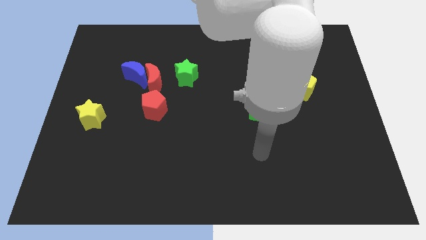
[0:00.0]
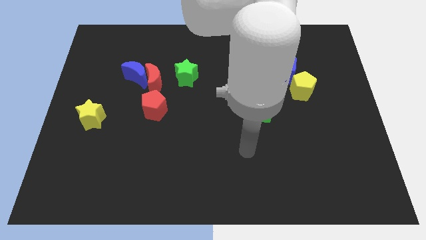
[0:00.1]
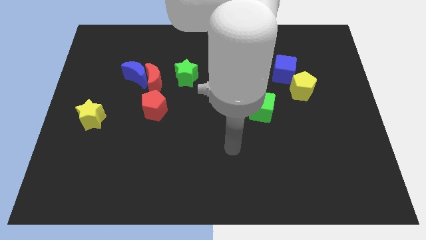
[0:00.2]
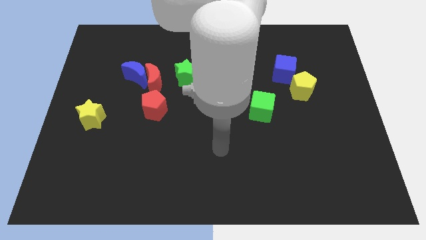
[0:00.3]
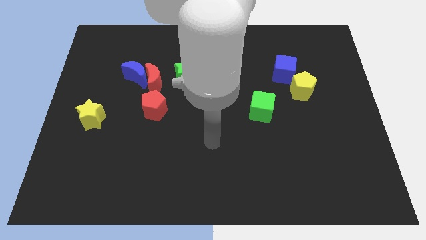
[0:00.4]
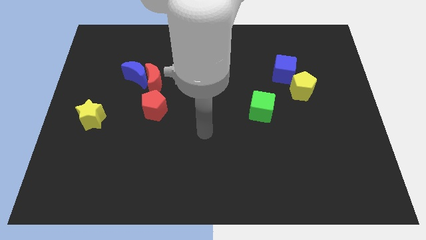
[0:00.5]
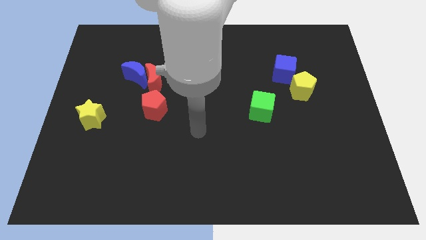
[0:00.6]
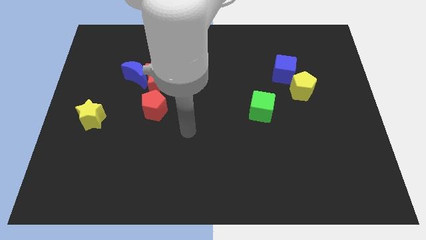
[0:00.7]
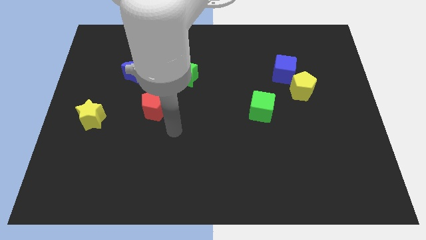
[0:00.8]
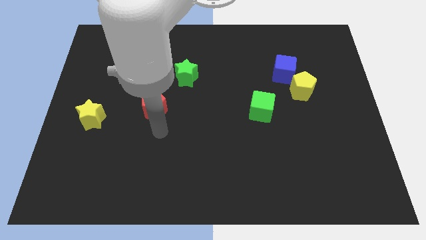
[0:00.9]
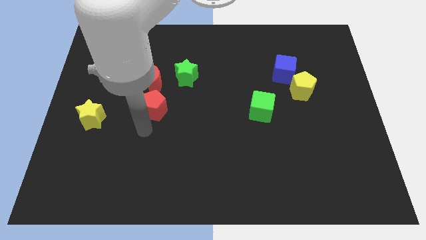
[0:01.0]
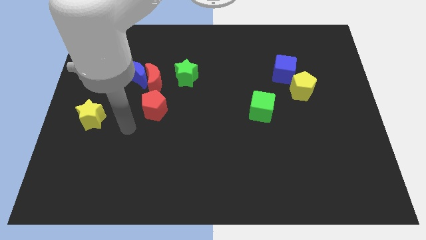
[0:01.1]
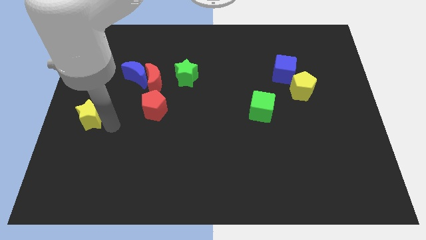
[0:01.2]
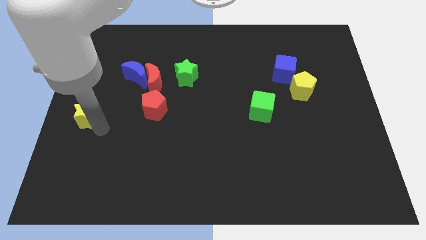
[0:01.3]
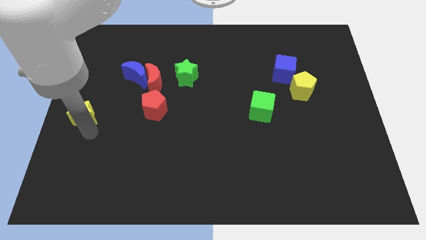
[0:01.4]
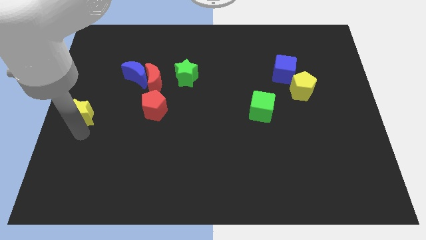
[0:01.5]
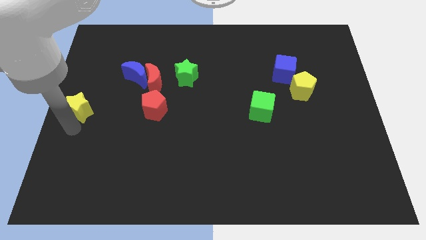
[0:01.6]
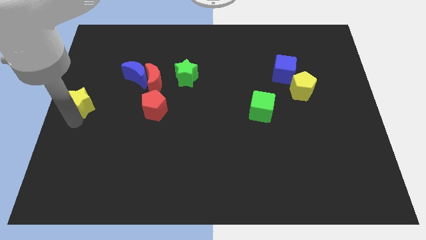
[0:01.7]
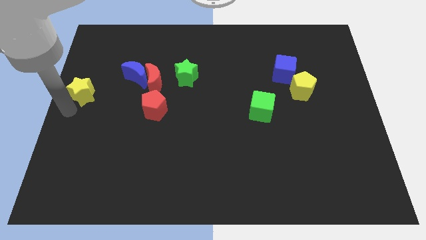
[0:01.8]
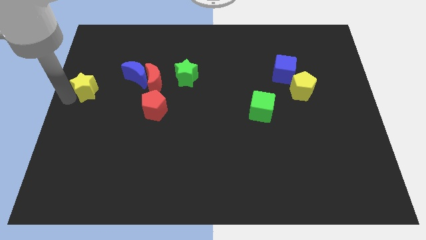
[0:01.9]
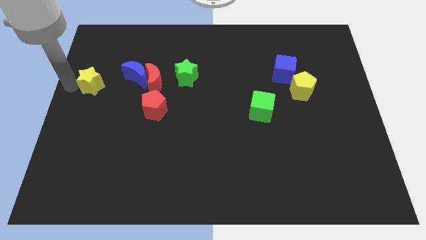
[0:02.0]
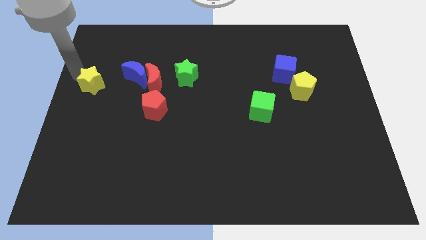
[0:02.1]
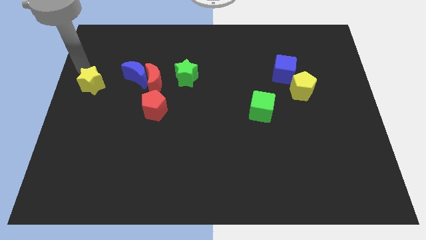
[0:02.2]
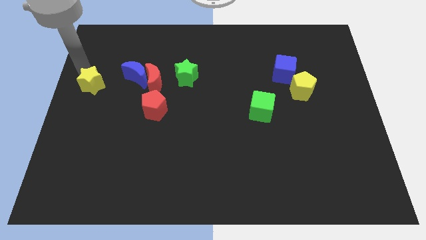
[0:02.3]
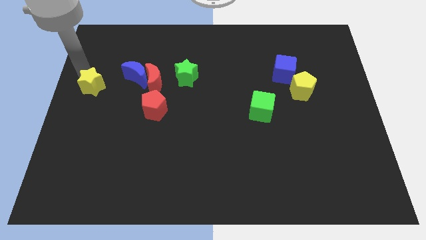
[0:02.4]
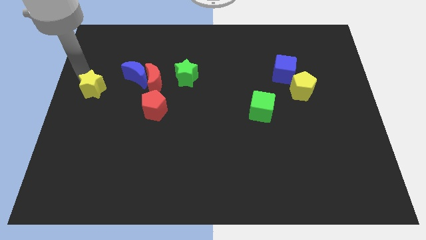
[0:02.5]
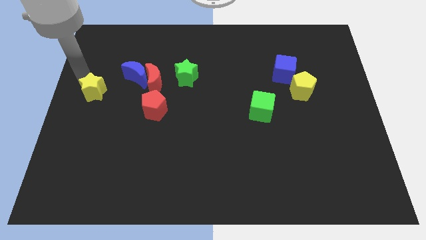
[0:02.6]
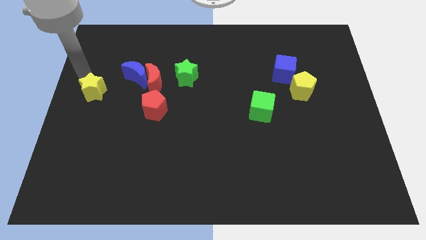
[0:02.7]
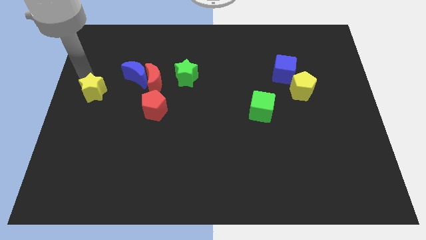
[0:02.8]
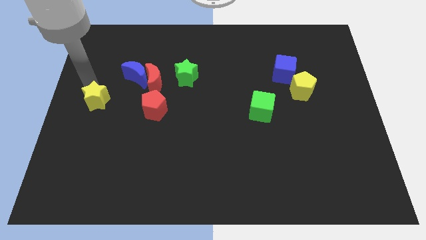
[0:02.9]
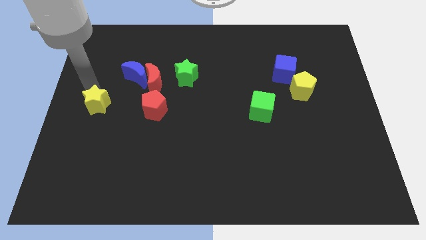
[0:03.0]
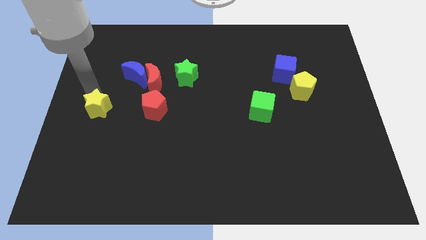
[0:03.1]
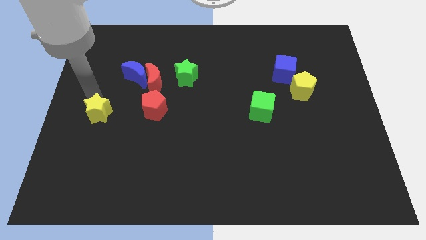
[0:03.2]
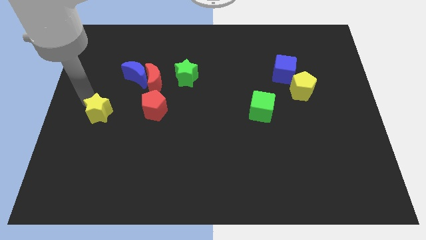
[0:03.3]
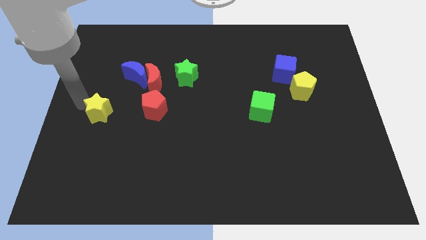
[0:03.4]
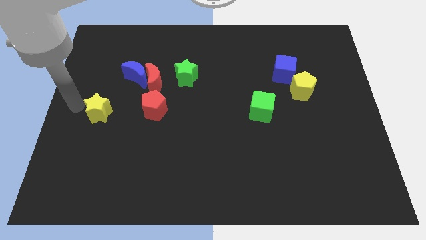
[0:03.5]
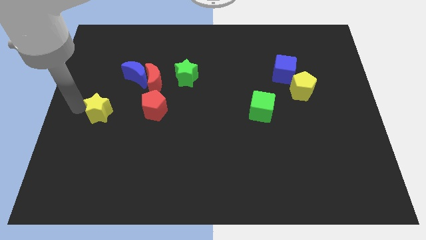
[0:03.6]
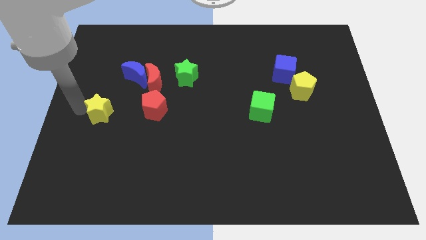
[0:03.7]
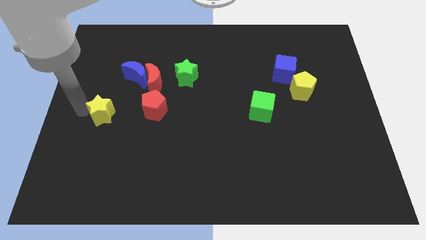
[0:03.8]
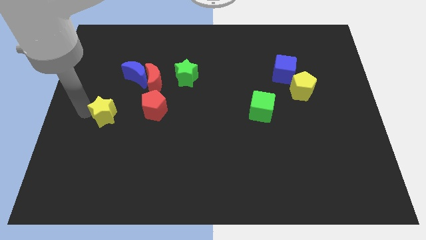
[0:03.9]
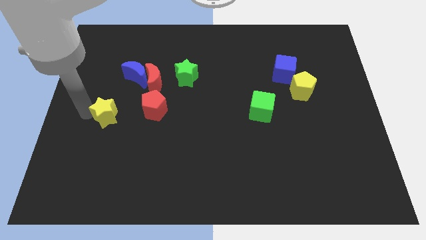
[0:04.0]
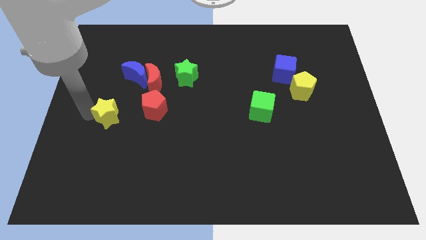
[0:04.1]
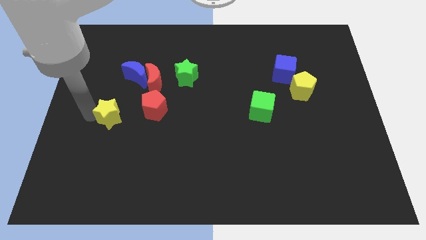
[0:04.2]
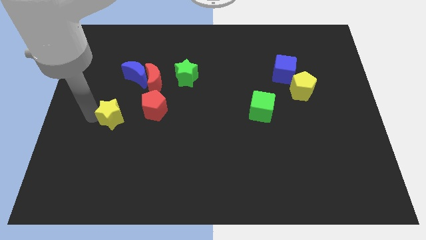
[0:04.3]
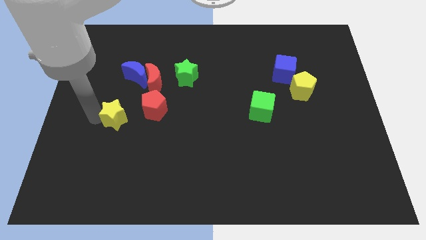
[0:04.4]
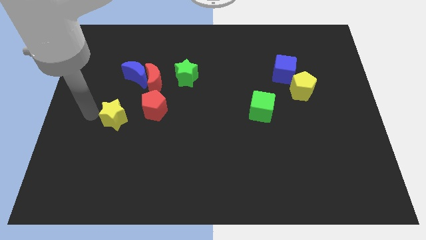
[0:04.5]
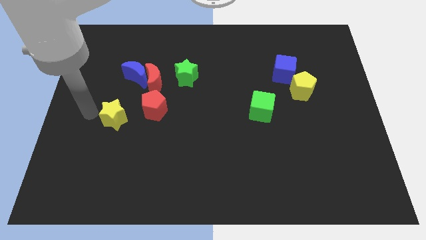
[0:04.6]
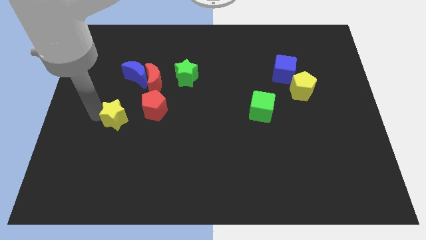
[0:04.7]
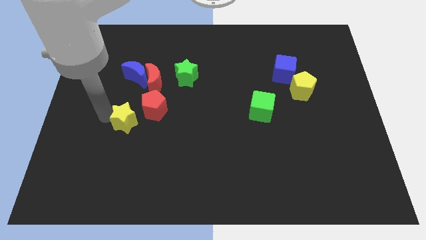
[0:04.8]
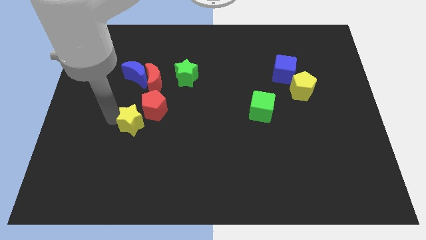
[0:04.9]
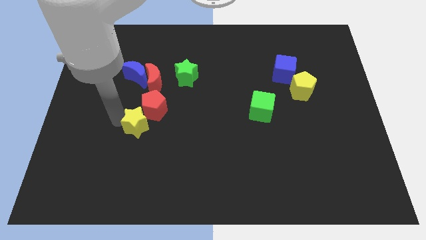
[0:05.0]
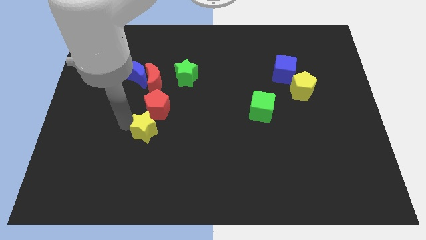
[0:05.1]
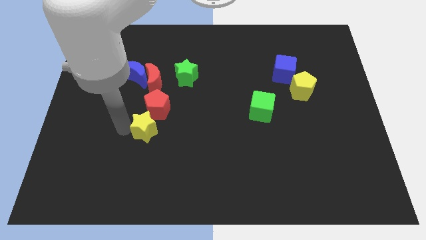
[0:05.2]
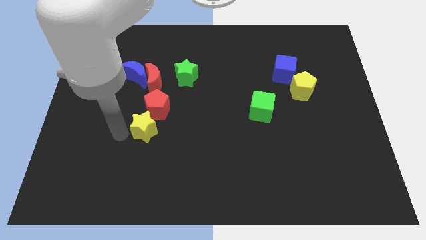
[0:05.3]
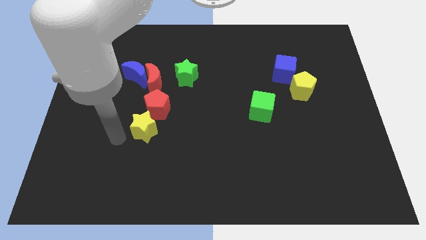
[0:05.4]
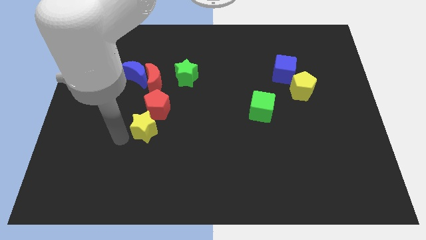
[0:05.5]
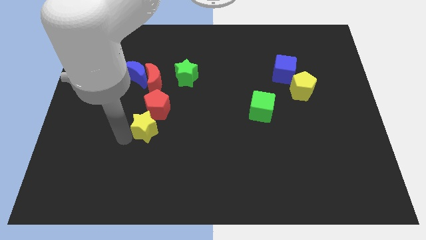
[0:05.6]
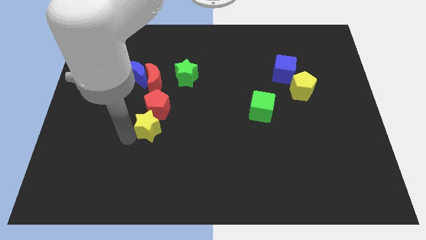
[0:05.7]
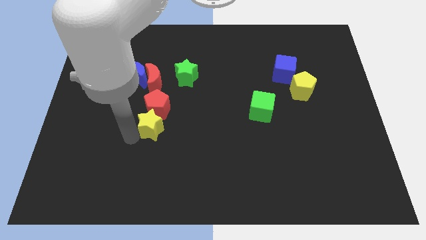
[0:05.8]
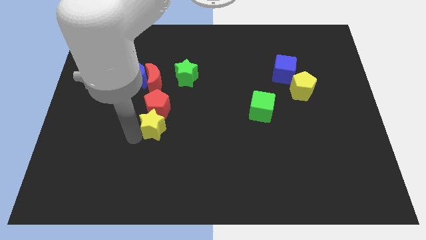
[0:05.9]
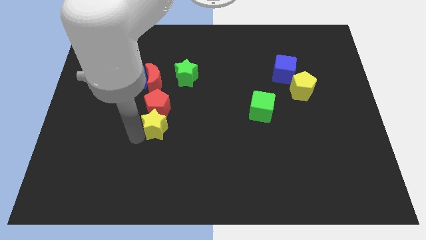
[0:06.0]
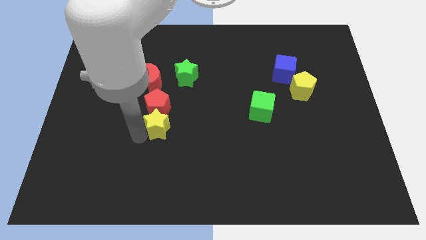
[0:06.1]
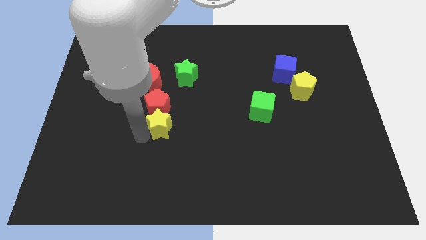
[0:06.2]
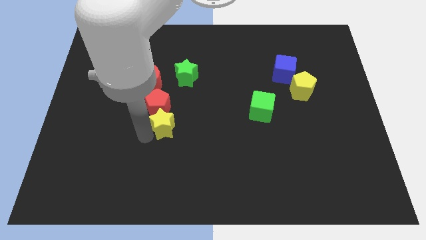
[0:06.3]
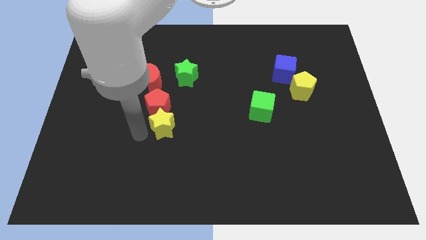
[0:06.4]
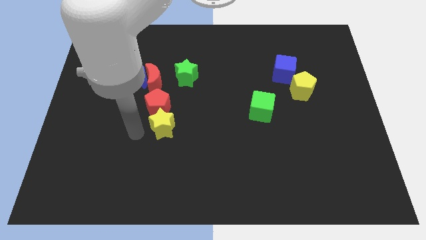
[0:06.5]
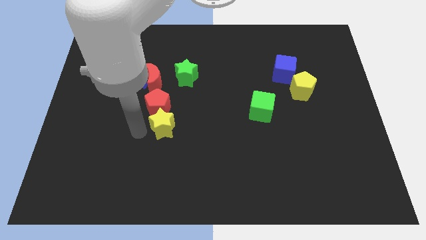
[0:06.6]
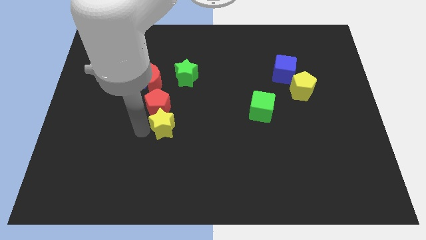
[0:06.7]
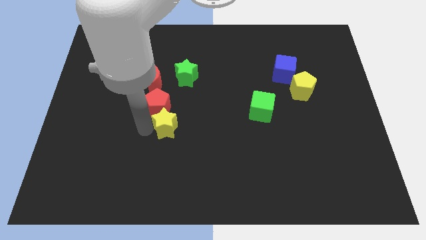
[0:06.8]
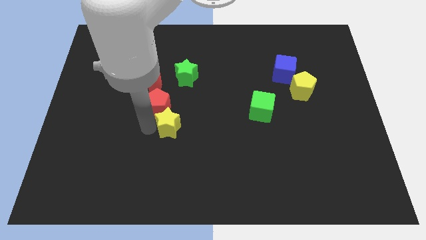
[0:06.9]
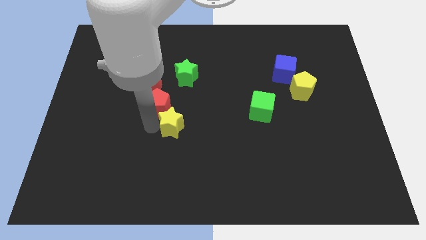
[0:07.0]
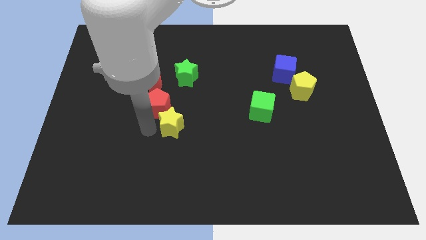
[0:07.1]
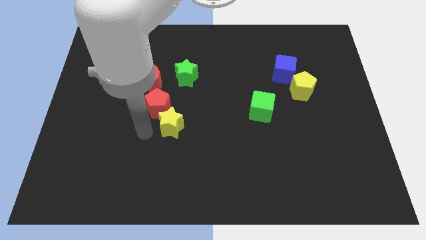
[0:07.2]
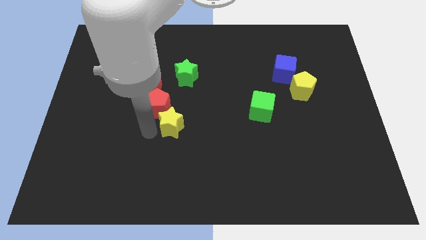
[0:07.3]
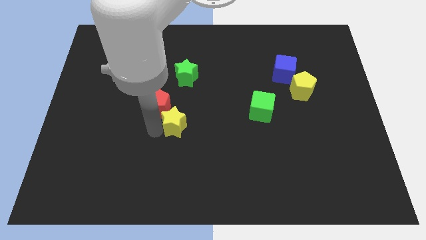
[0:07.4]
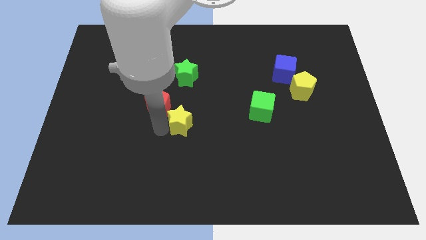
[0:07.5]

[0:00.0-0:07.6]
slide the yellow star to the right

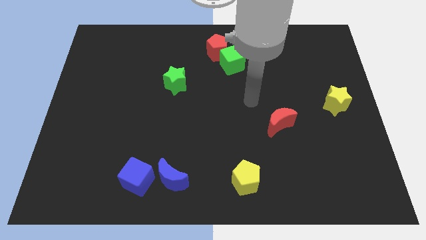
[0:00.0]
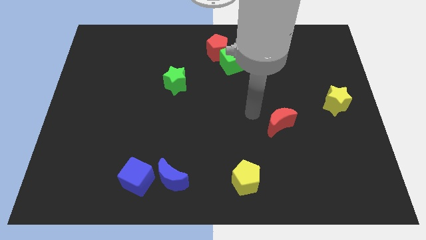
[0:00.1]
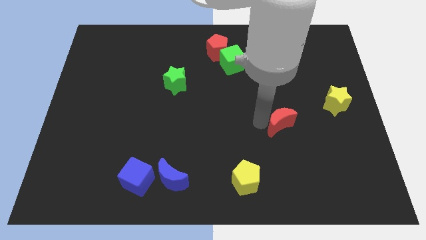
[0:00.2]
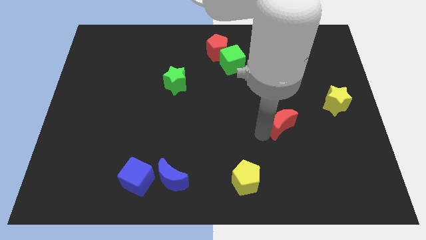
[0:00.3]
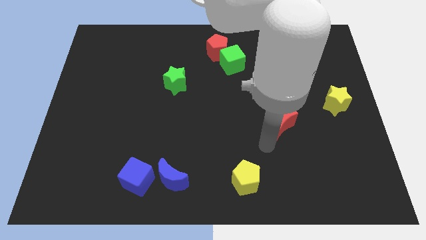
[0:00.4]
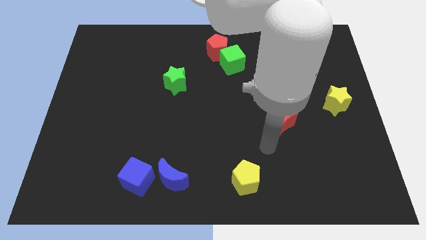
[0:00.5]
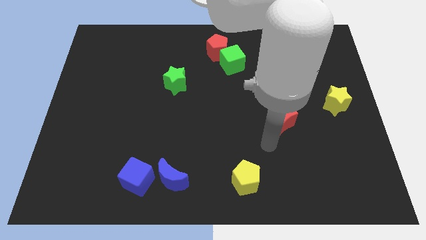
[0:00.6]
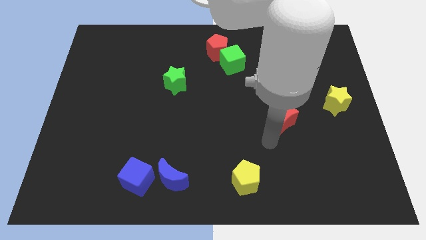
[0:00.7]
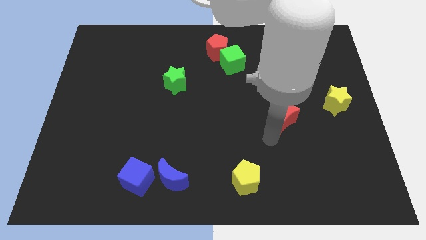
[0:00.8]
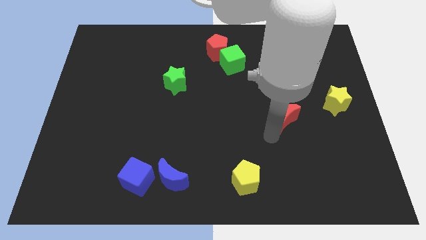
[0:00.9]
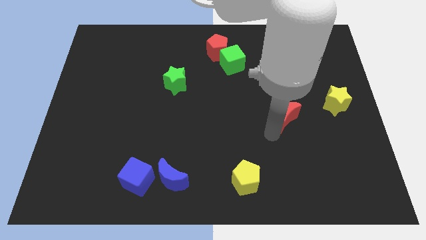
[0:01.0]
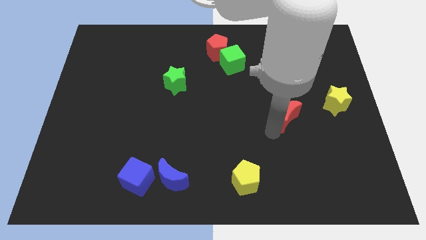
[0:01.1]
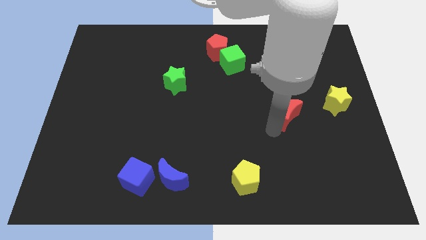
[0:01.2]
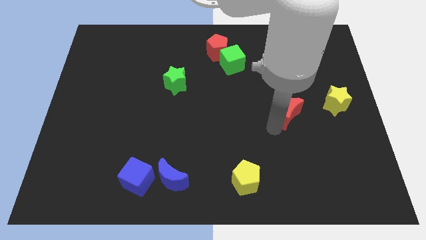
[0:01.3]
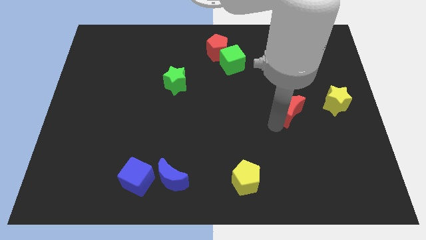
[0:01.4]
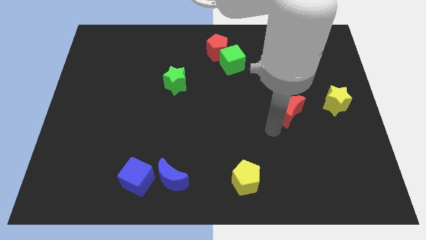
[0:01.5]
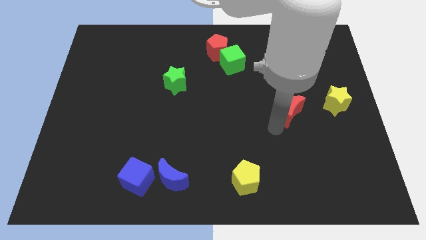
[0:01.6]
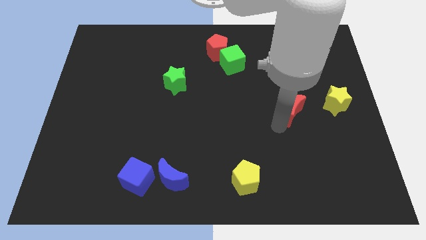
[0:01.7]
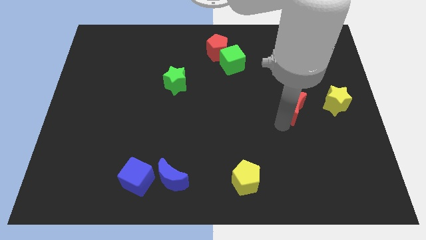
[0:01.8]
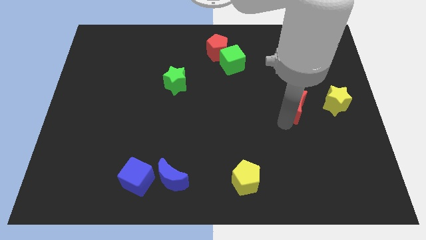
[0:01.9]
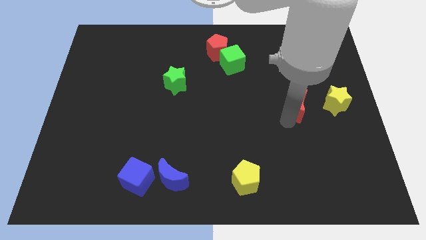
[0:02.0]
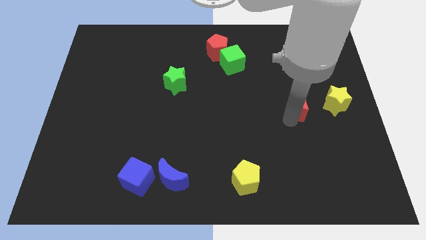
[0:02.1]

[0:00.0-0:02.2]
move the red moon up and right a little bit
